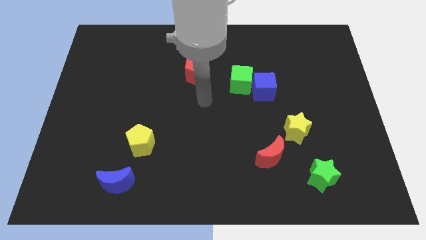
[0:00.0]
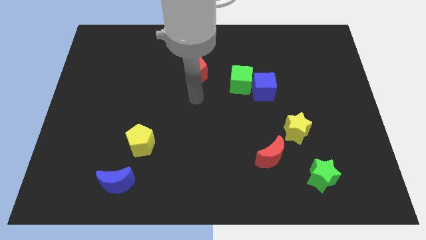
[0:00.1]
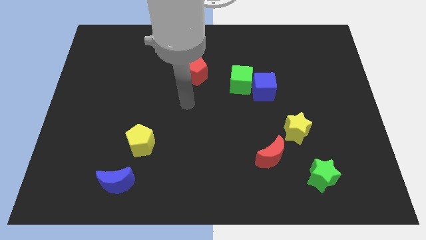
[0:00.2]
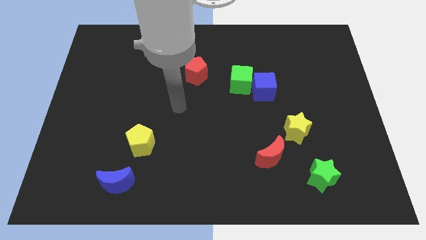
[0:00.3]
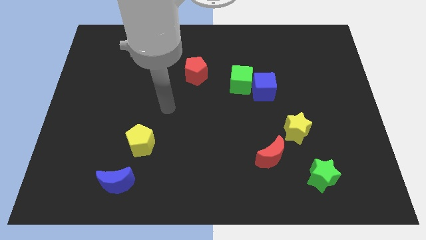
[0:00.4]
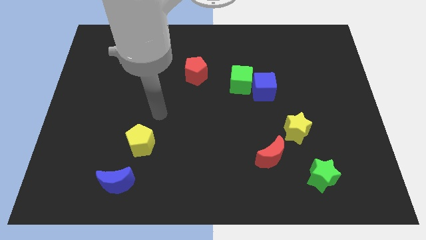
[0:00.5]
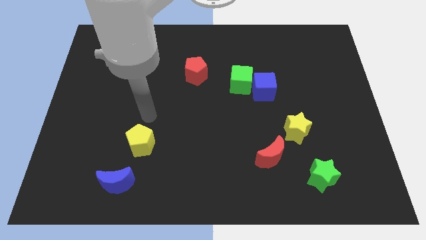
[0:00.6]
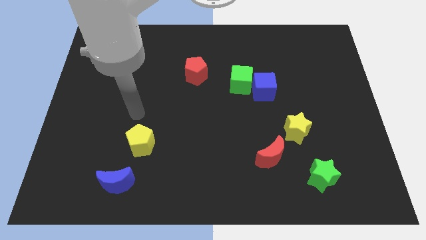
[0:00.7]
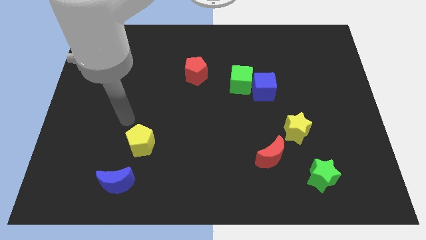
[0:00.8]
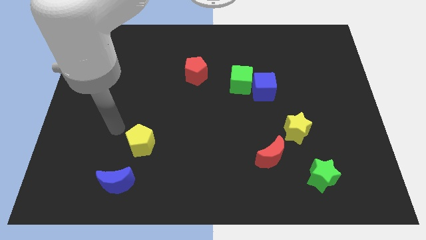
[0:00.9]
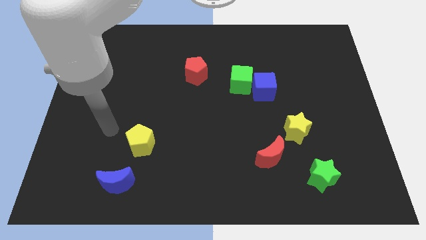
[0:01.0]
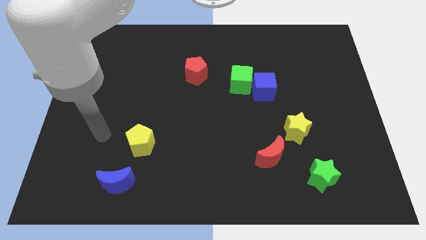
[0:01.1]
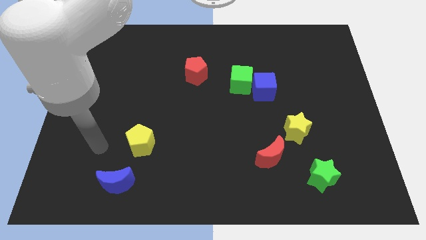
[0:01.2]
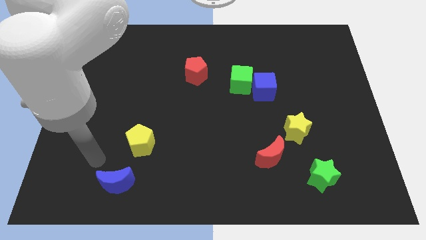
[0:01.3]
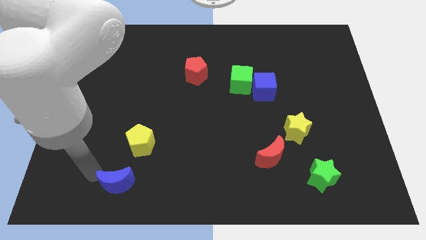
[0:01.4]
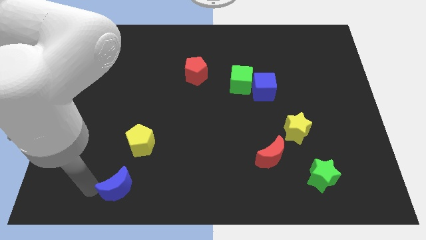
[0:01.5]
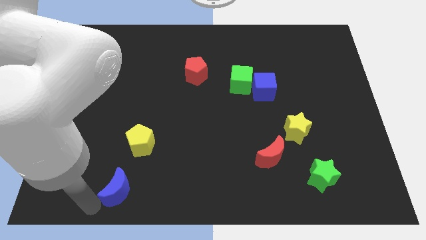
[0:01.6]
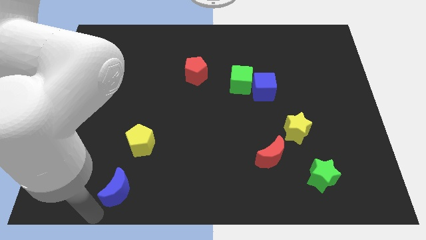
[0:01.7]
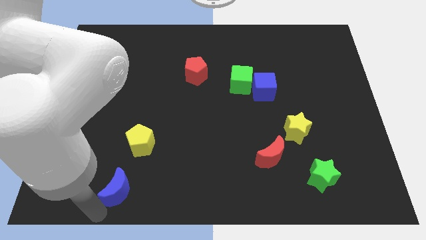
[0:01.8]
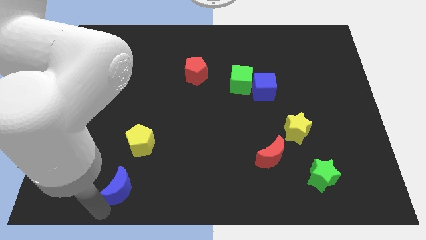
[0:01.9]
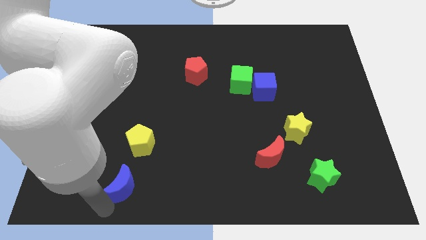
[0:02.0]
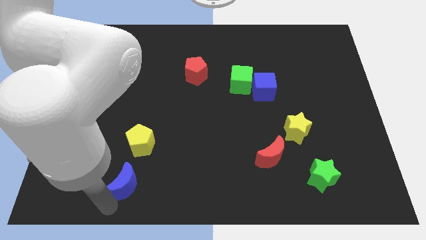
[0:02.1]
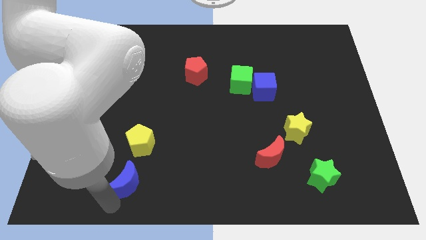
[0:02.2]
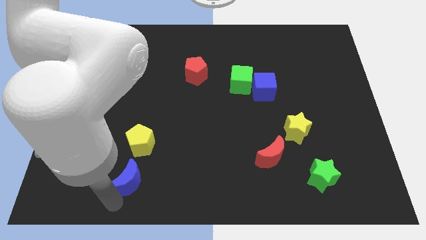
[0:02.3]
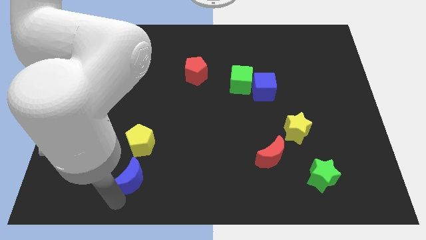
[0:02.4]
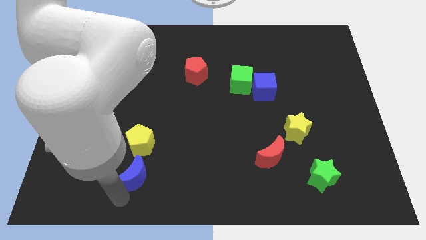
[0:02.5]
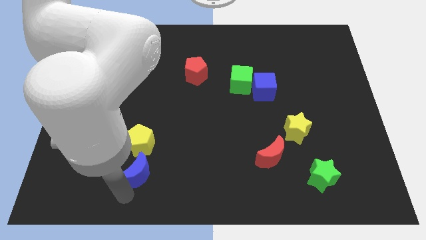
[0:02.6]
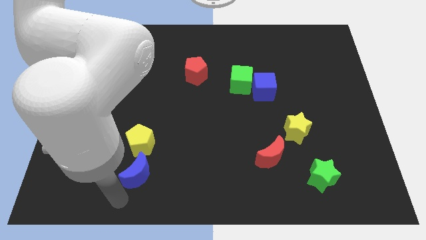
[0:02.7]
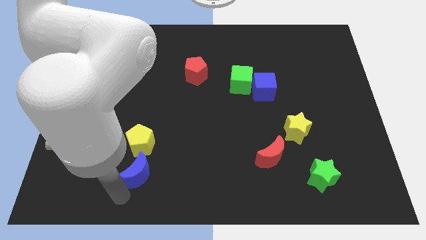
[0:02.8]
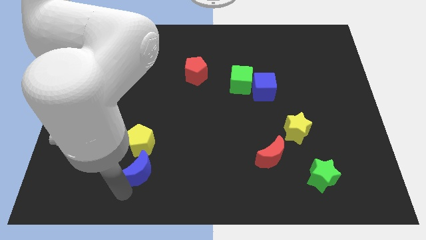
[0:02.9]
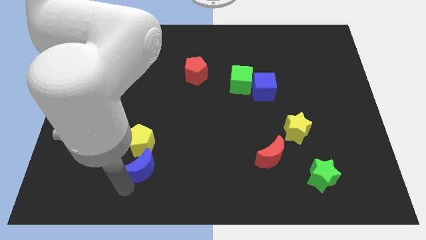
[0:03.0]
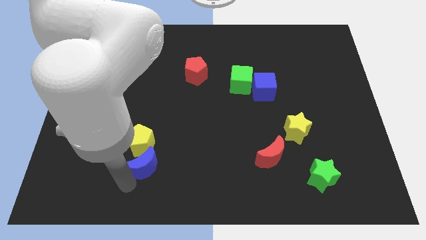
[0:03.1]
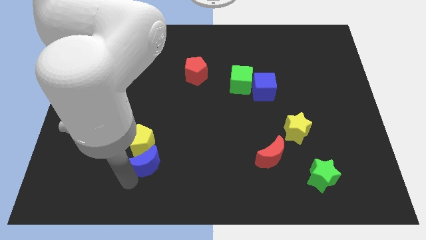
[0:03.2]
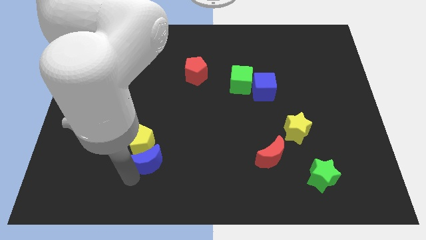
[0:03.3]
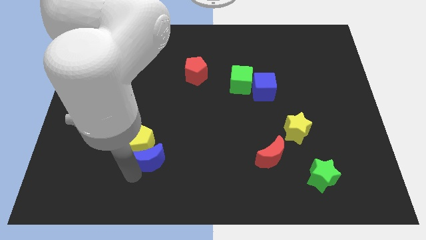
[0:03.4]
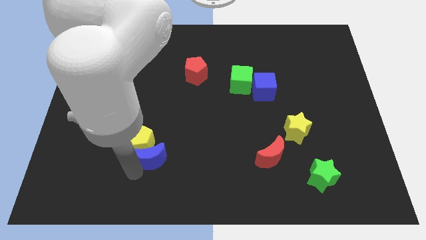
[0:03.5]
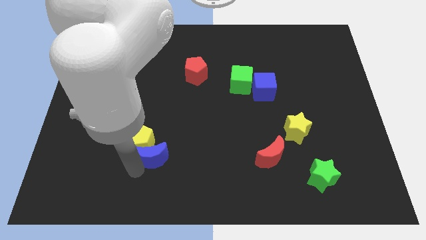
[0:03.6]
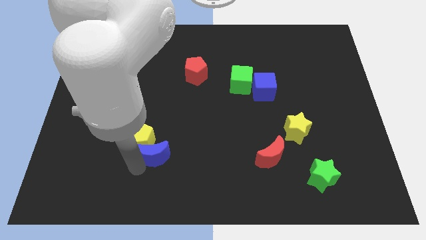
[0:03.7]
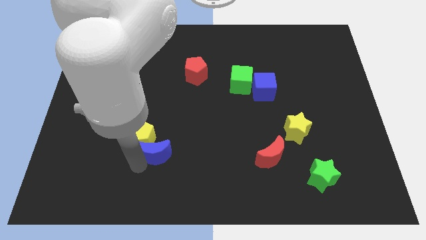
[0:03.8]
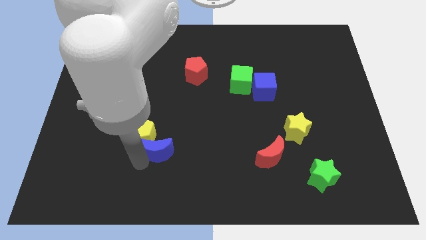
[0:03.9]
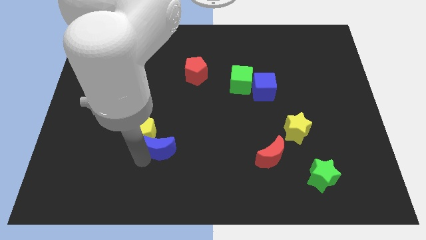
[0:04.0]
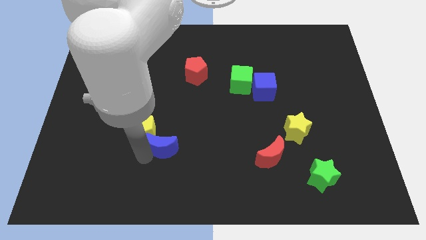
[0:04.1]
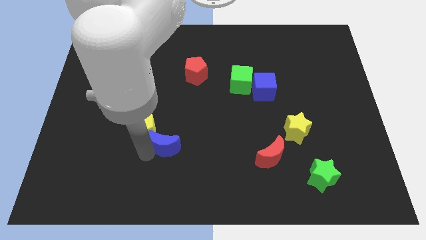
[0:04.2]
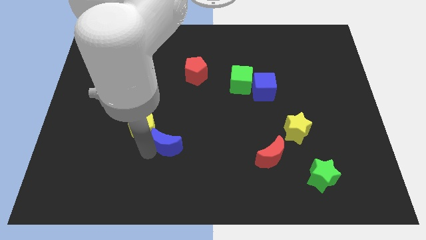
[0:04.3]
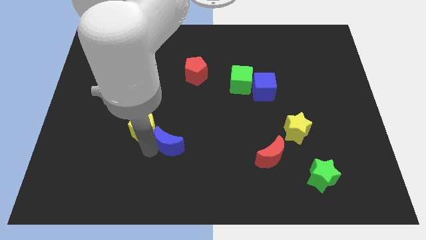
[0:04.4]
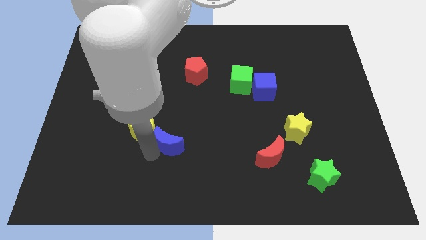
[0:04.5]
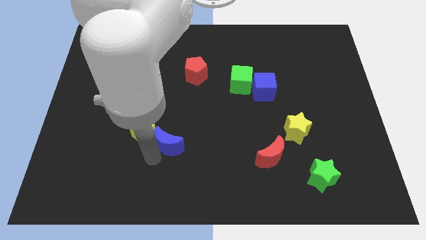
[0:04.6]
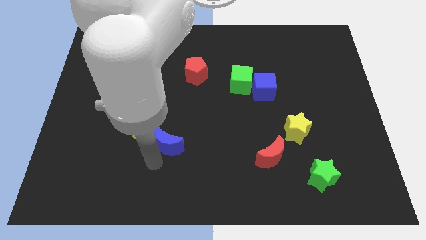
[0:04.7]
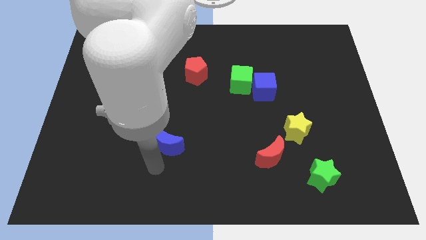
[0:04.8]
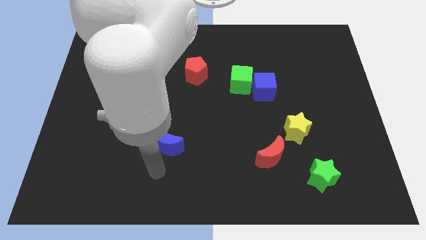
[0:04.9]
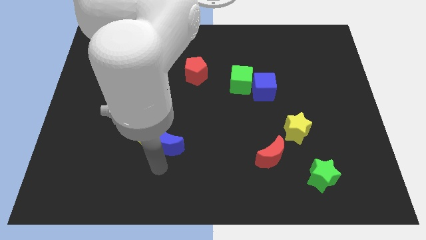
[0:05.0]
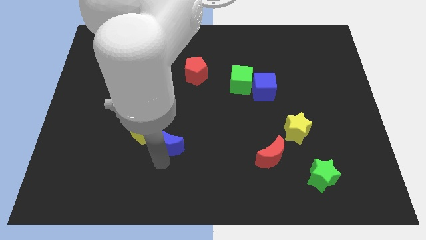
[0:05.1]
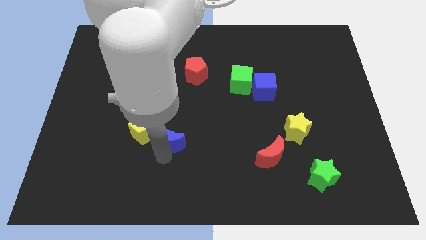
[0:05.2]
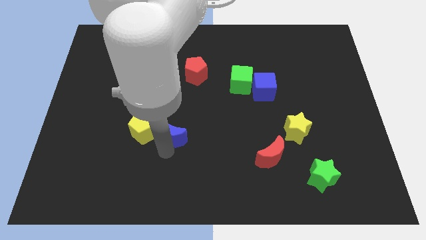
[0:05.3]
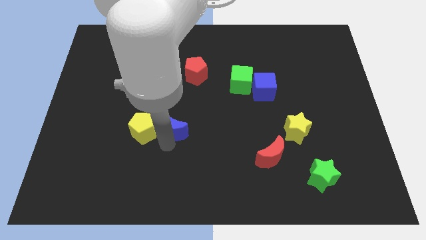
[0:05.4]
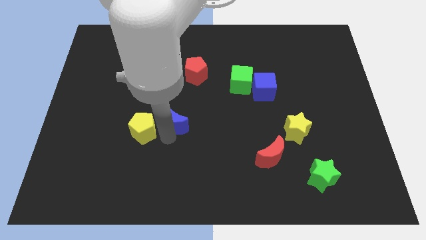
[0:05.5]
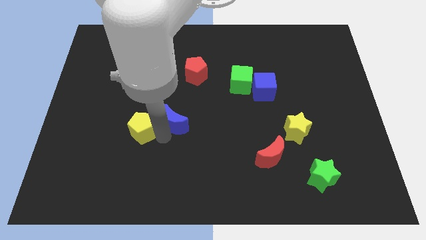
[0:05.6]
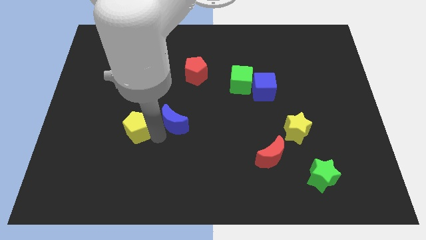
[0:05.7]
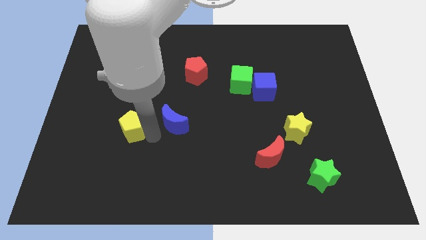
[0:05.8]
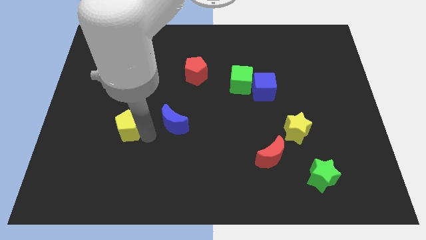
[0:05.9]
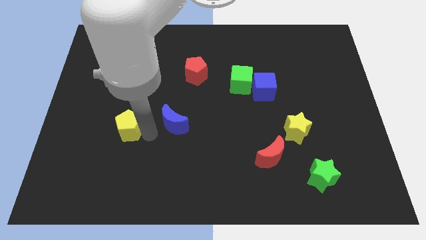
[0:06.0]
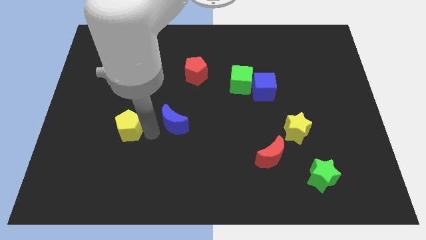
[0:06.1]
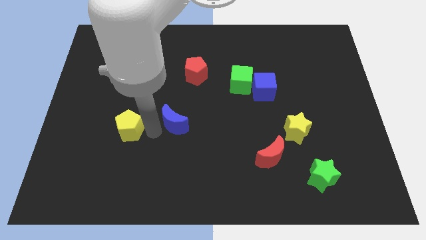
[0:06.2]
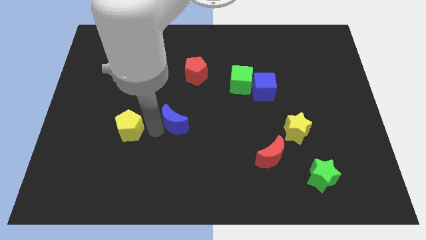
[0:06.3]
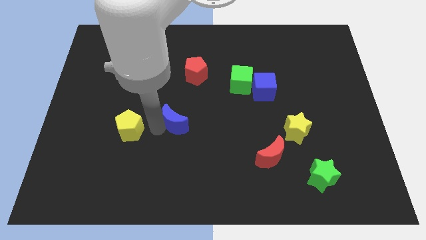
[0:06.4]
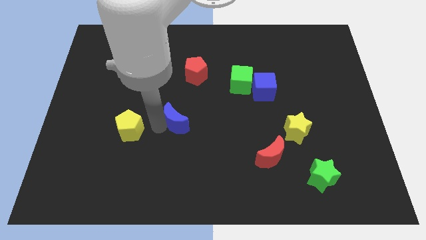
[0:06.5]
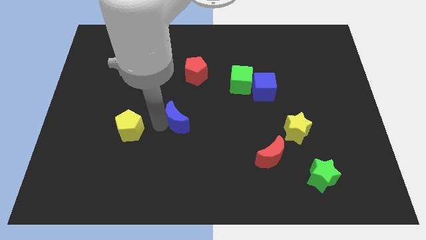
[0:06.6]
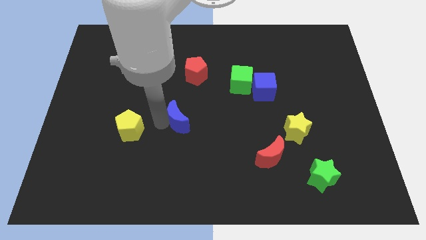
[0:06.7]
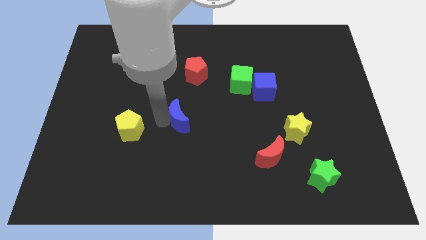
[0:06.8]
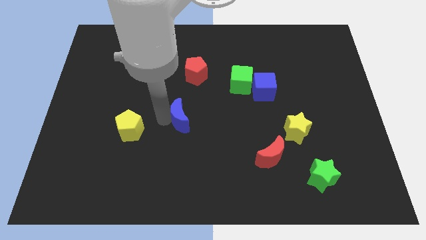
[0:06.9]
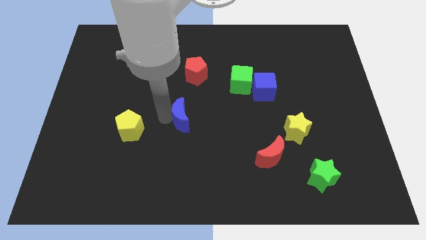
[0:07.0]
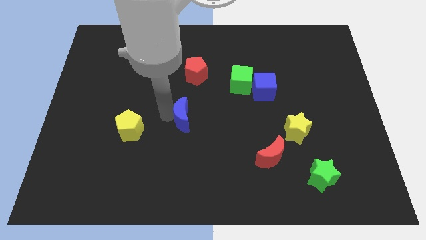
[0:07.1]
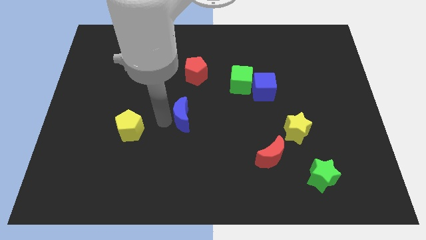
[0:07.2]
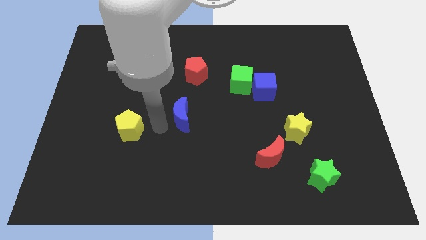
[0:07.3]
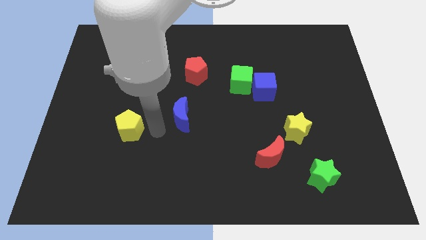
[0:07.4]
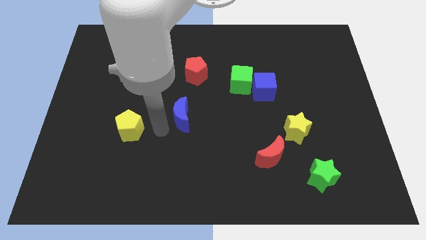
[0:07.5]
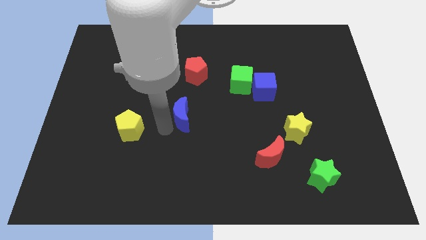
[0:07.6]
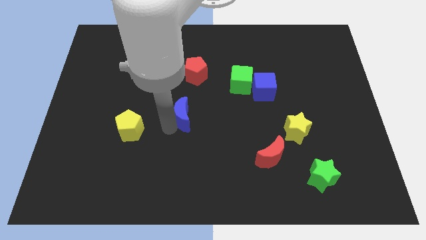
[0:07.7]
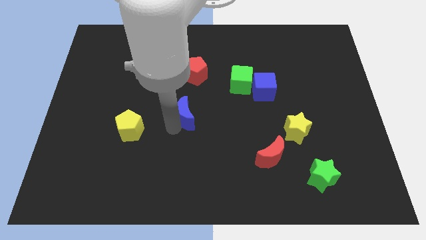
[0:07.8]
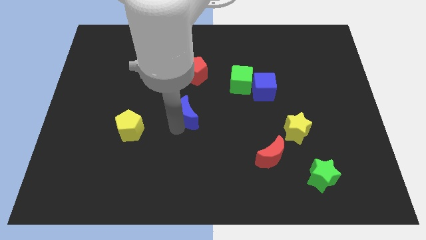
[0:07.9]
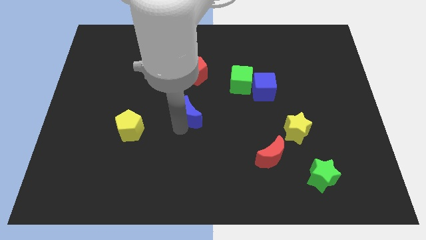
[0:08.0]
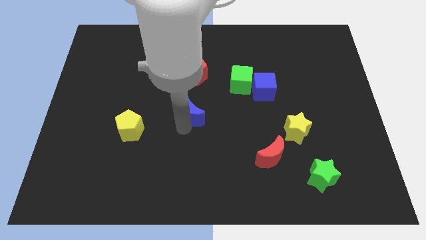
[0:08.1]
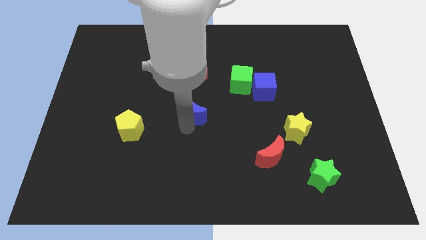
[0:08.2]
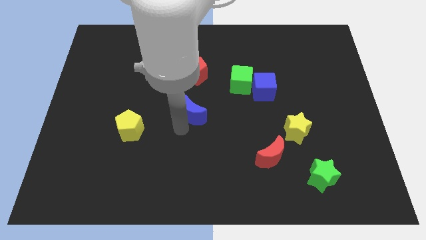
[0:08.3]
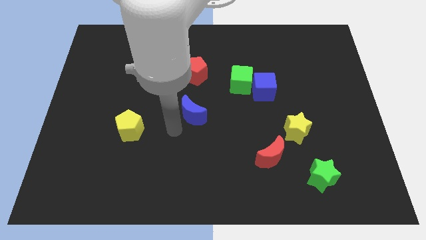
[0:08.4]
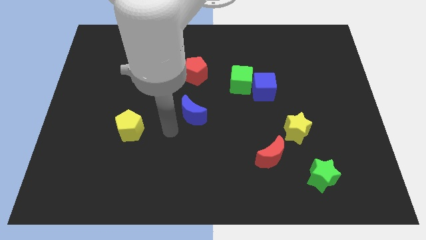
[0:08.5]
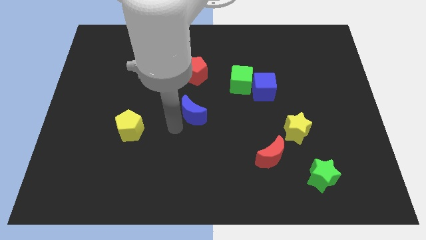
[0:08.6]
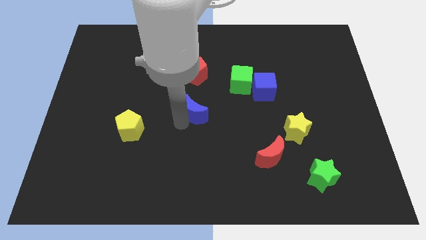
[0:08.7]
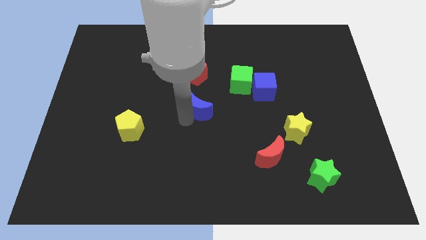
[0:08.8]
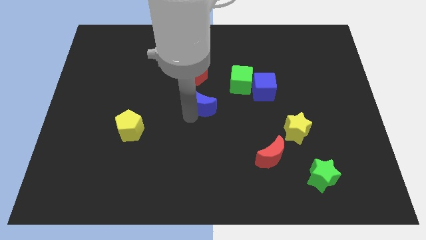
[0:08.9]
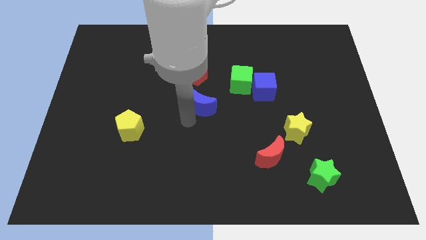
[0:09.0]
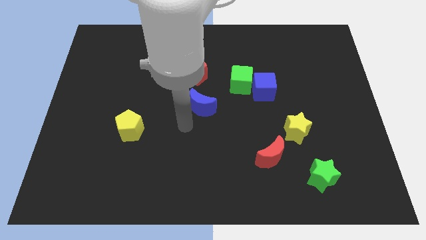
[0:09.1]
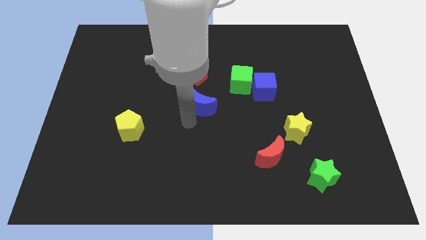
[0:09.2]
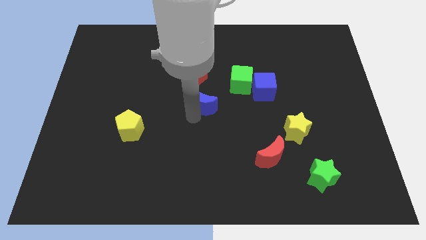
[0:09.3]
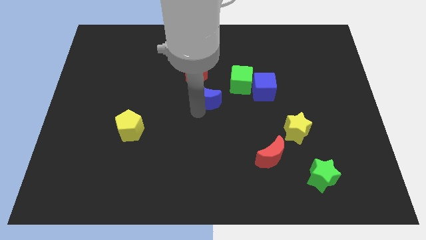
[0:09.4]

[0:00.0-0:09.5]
slide the blue moon to the bottom right of the red pentagon
